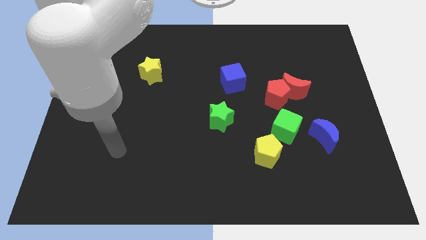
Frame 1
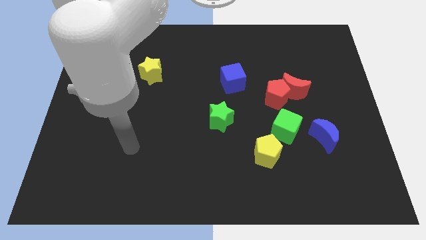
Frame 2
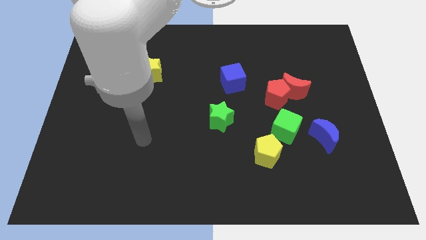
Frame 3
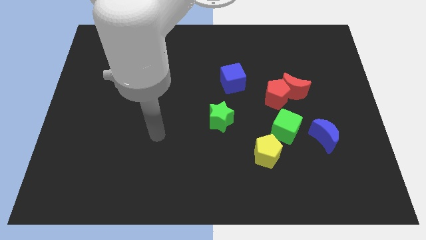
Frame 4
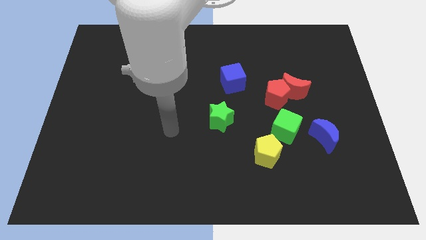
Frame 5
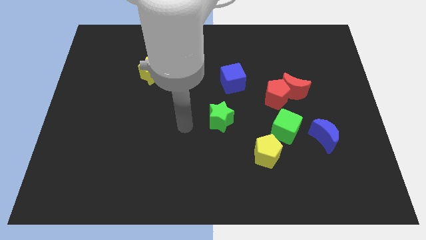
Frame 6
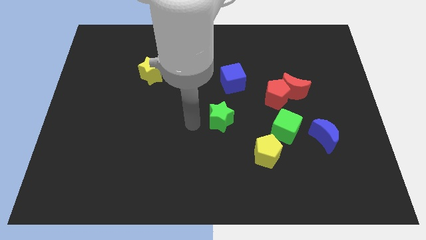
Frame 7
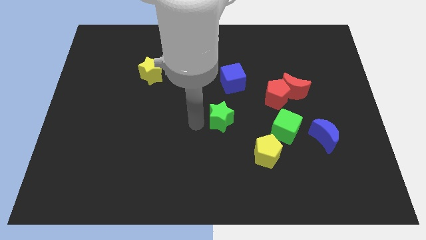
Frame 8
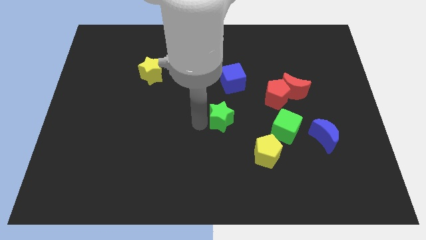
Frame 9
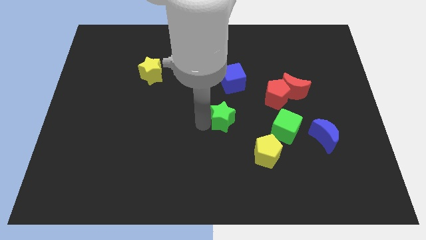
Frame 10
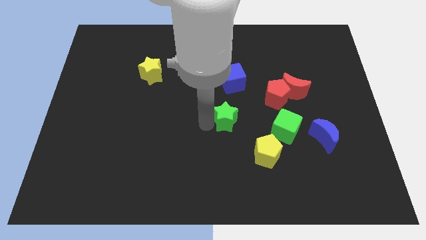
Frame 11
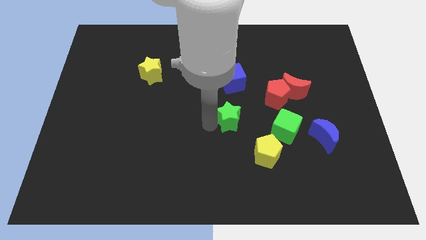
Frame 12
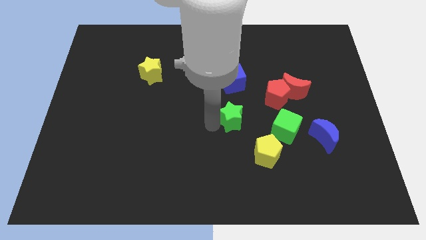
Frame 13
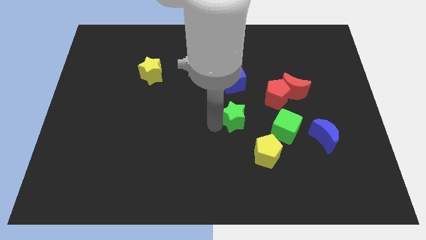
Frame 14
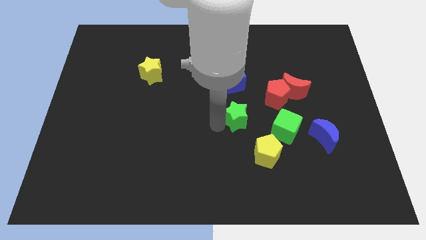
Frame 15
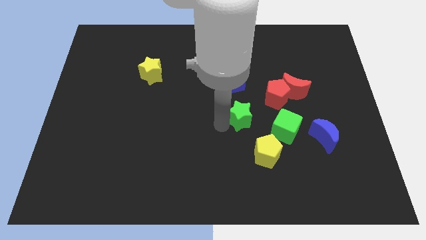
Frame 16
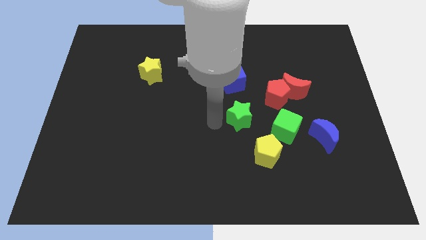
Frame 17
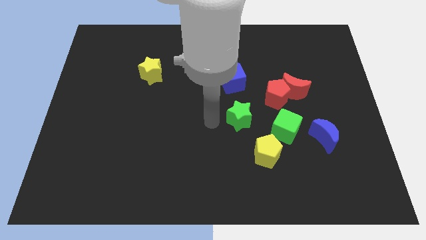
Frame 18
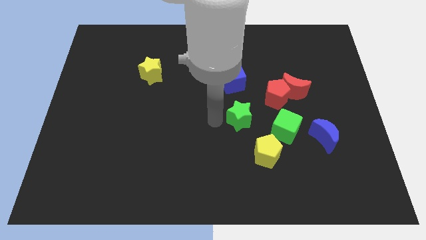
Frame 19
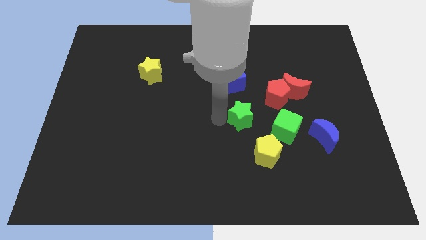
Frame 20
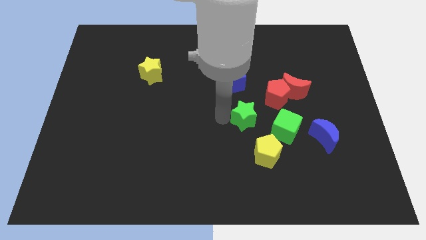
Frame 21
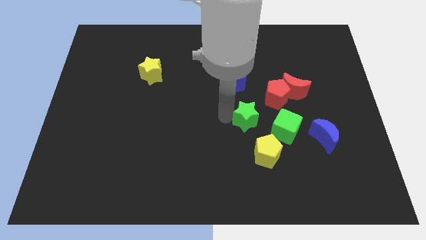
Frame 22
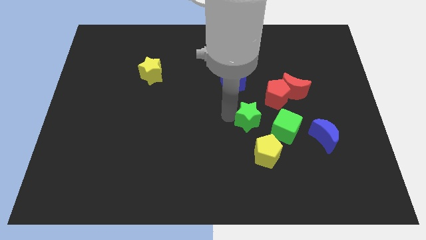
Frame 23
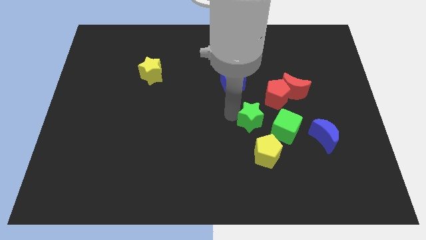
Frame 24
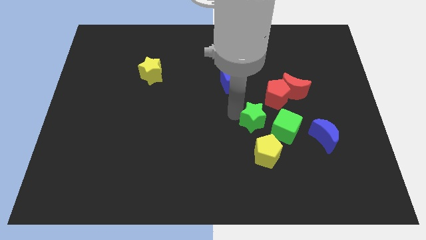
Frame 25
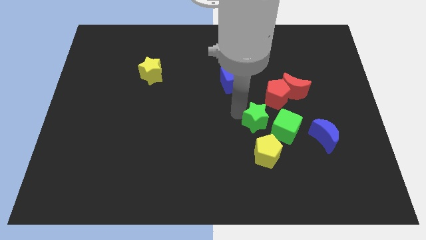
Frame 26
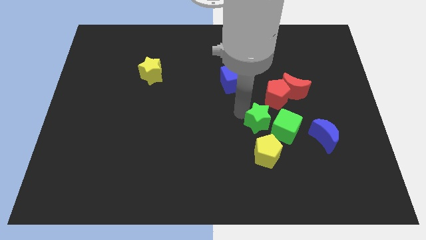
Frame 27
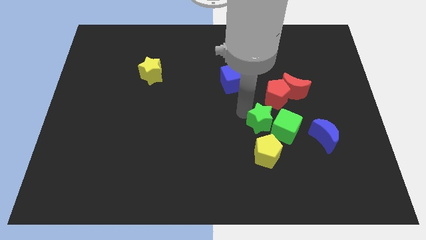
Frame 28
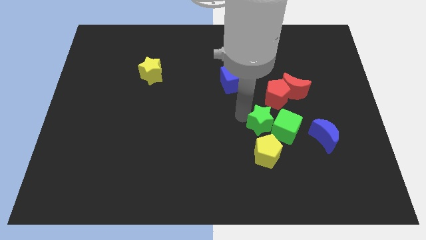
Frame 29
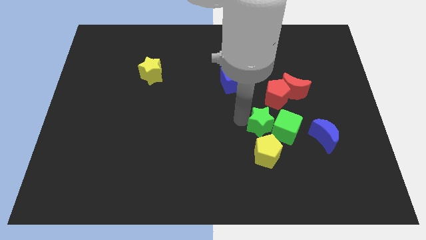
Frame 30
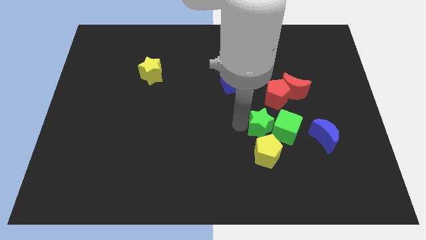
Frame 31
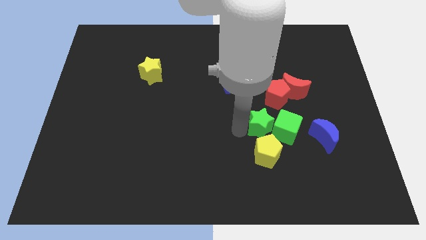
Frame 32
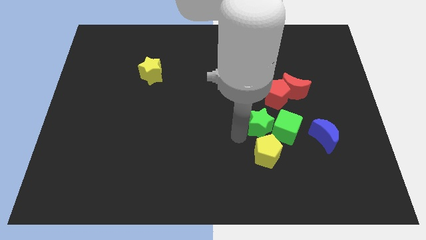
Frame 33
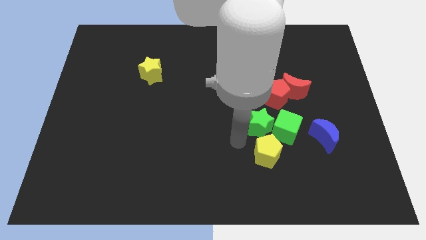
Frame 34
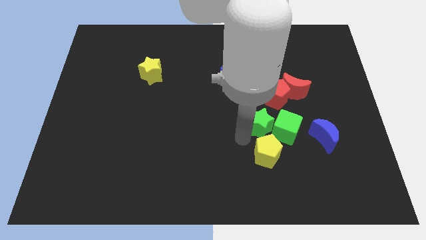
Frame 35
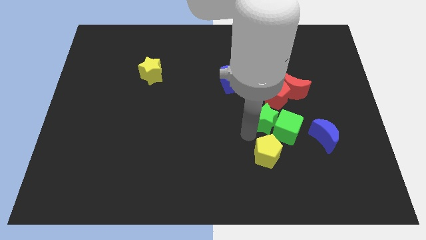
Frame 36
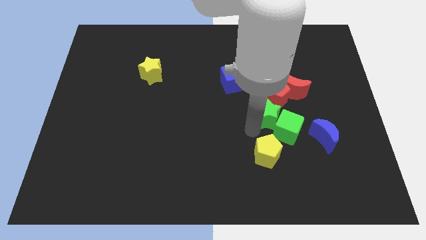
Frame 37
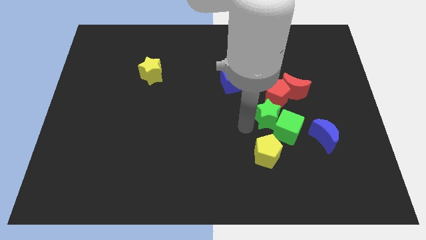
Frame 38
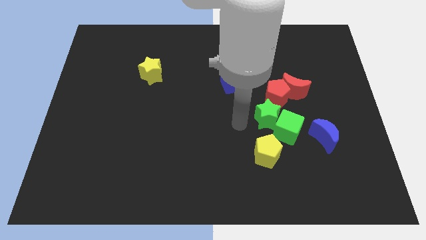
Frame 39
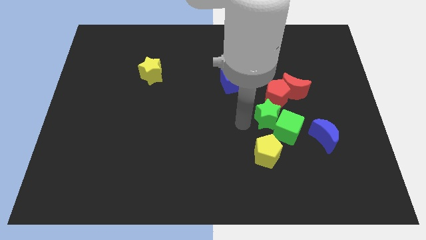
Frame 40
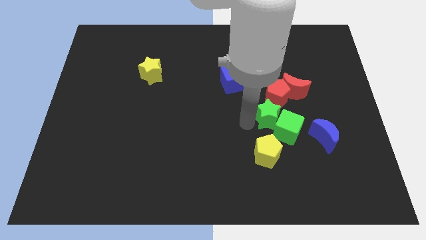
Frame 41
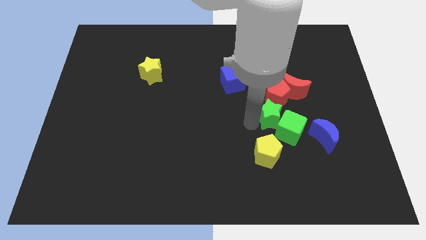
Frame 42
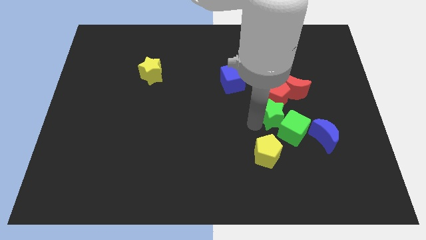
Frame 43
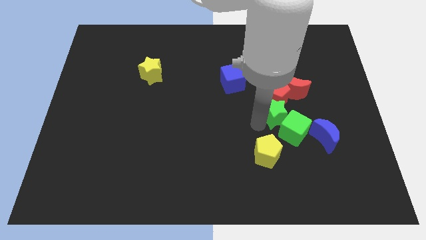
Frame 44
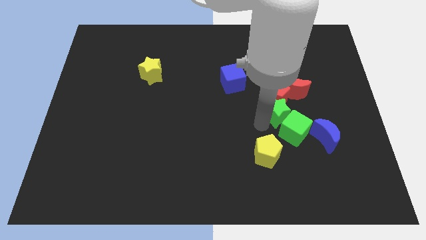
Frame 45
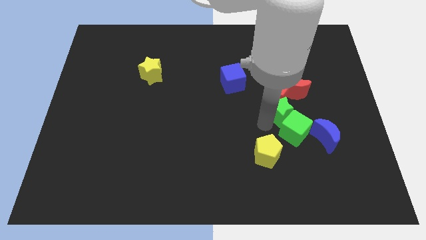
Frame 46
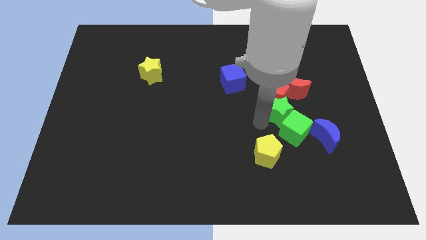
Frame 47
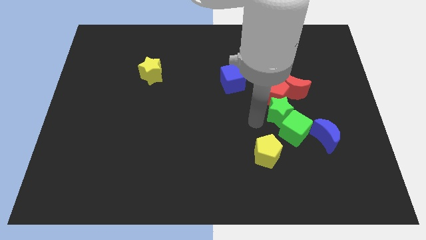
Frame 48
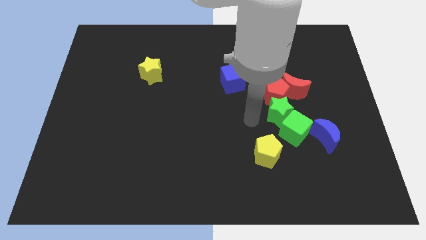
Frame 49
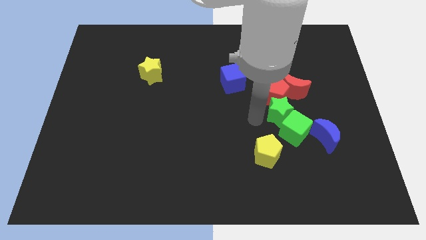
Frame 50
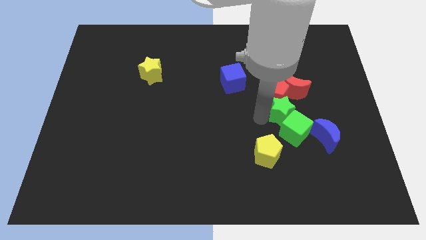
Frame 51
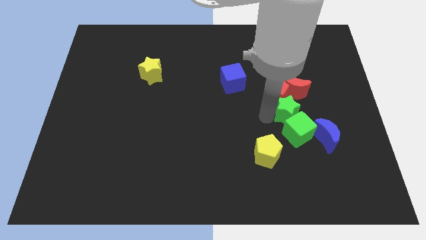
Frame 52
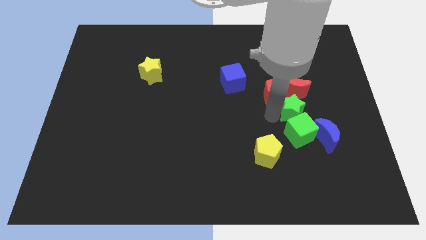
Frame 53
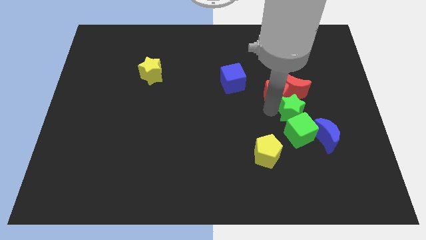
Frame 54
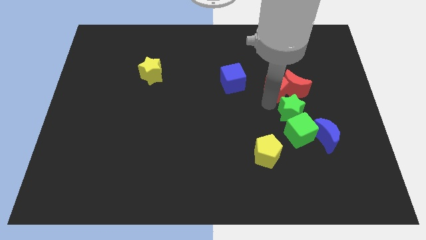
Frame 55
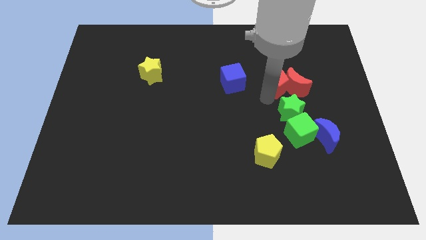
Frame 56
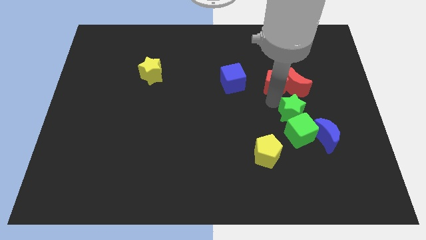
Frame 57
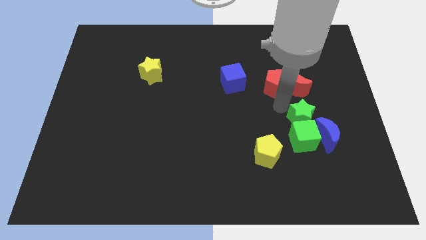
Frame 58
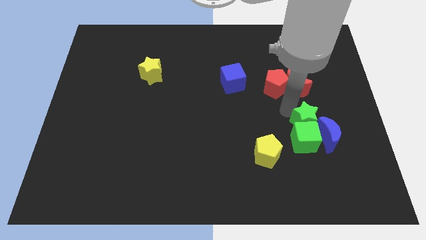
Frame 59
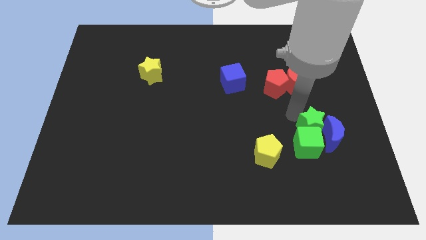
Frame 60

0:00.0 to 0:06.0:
push the green star towards the blue moon

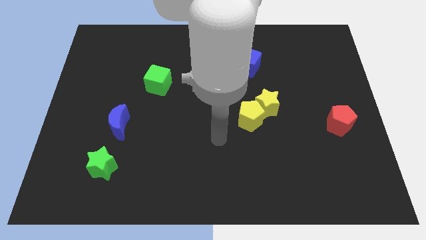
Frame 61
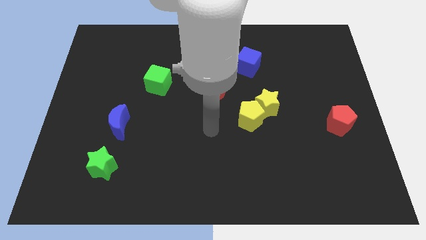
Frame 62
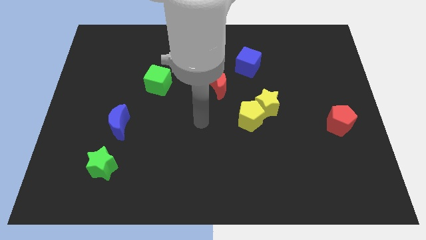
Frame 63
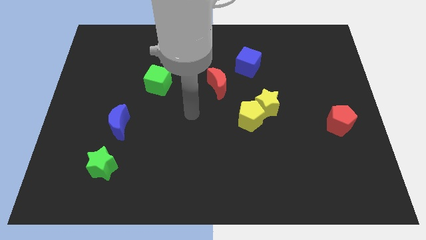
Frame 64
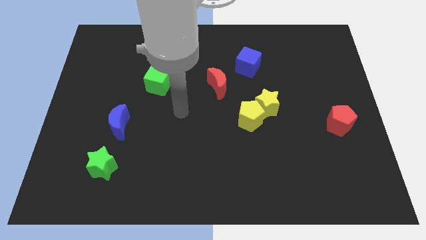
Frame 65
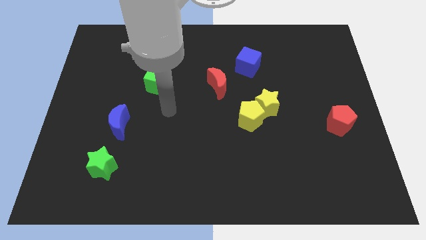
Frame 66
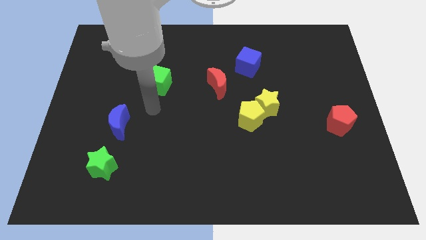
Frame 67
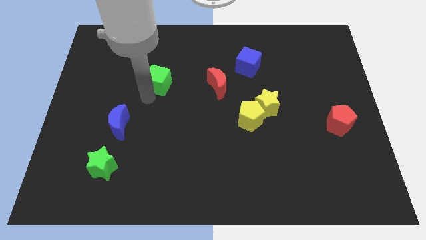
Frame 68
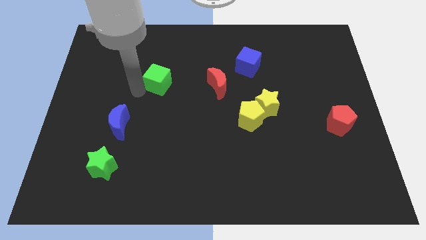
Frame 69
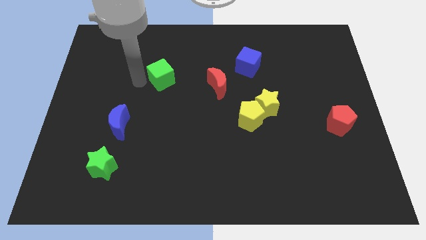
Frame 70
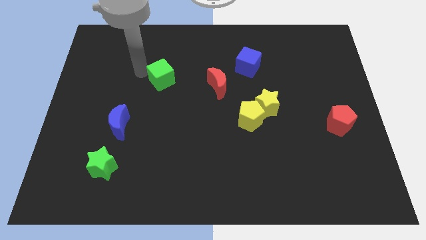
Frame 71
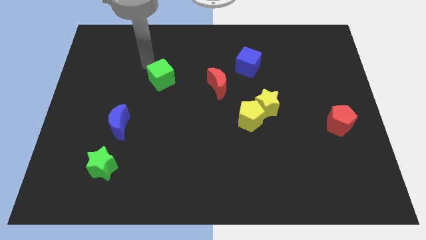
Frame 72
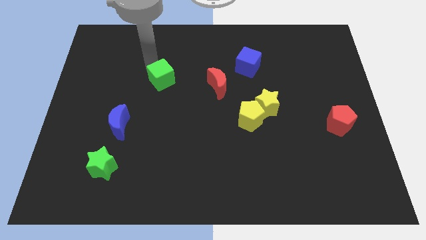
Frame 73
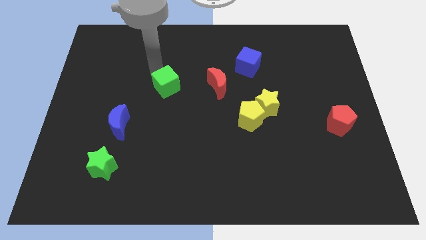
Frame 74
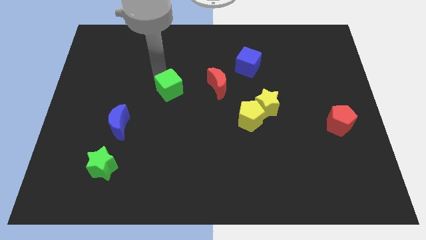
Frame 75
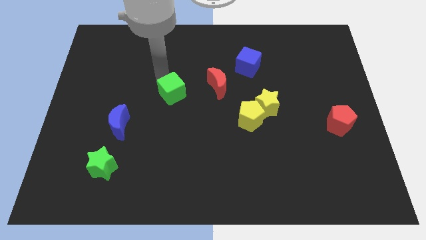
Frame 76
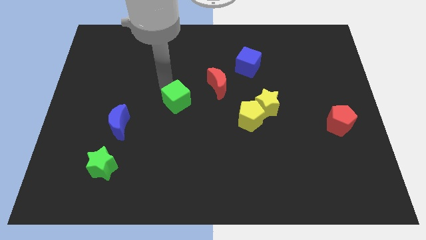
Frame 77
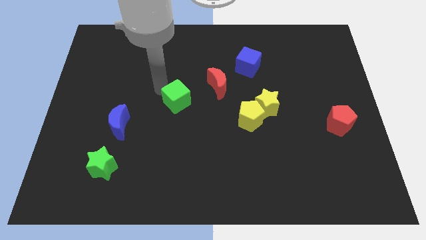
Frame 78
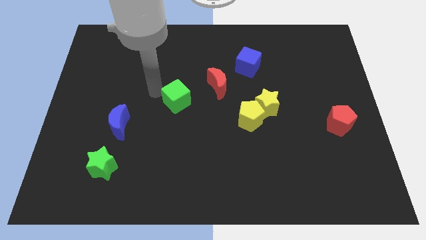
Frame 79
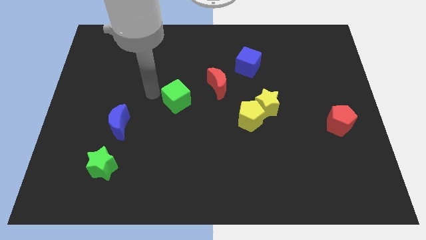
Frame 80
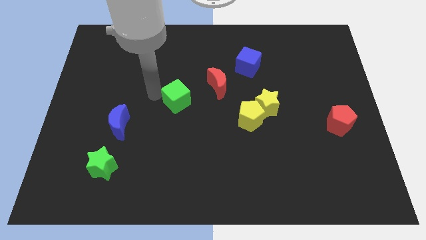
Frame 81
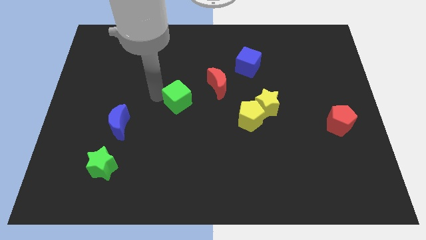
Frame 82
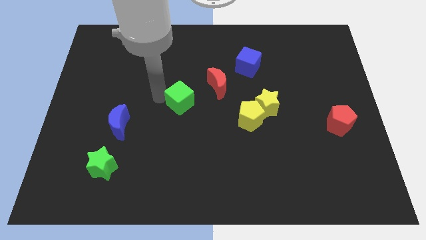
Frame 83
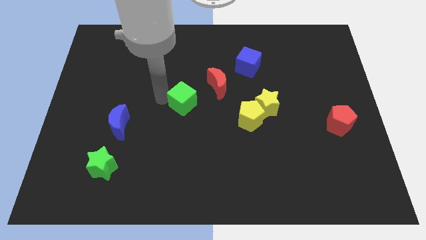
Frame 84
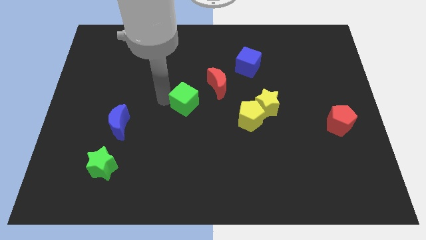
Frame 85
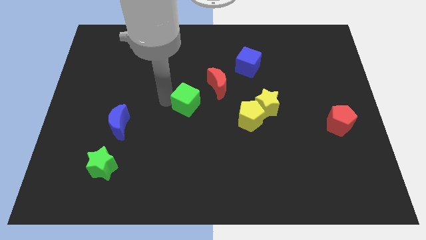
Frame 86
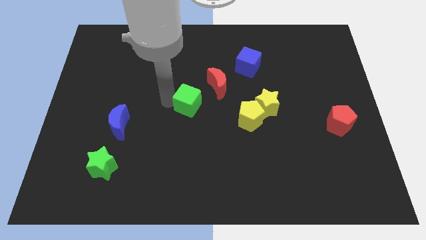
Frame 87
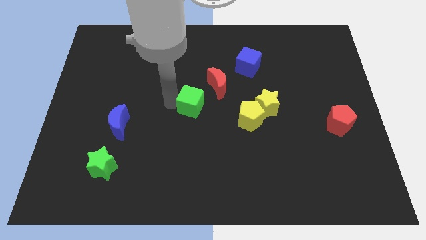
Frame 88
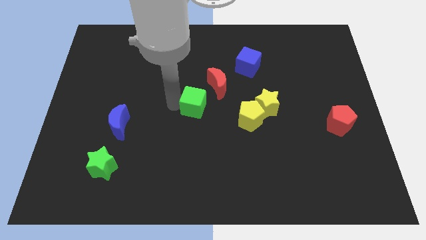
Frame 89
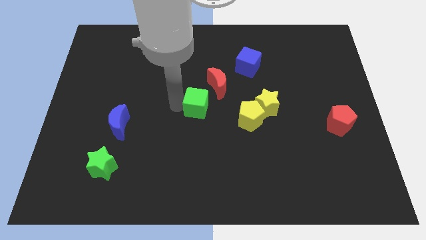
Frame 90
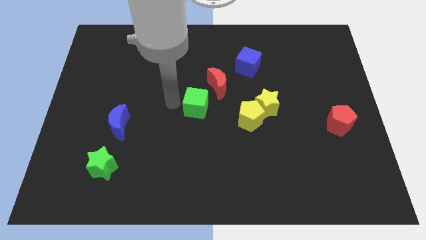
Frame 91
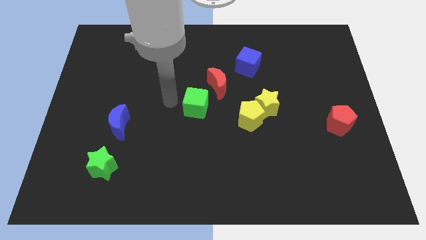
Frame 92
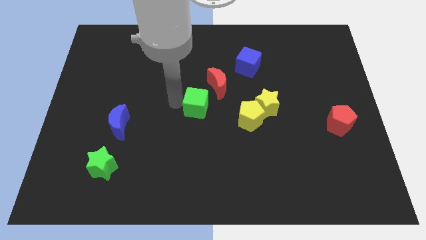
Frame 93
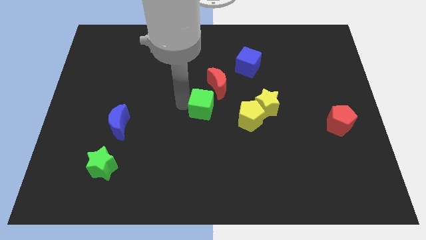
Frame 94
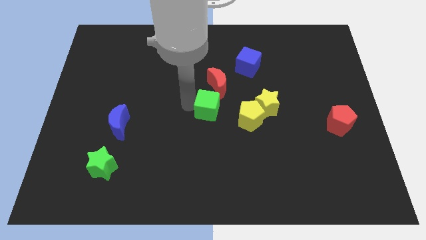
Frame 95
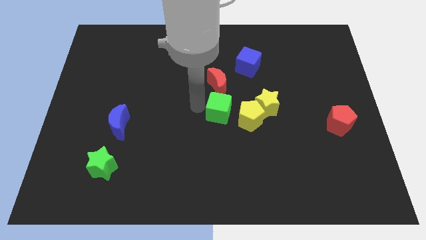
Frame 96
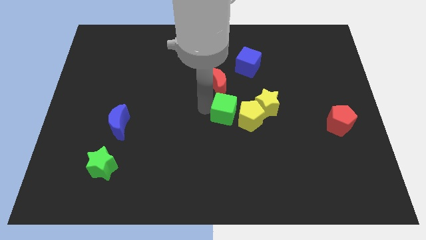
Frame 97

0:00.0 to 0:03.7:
slide the green cube next to the yellow pentagon
